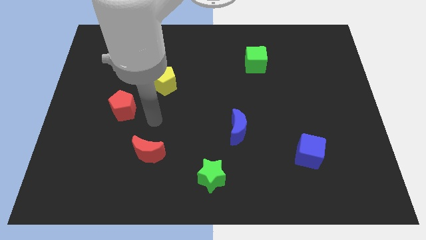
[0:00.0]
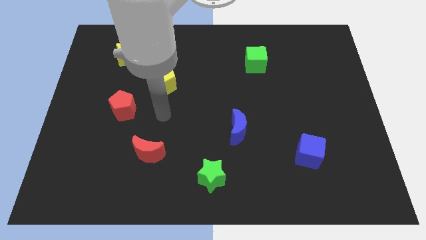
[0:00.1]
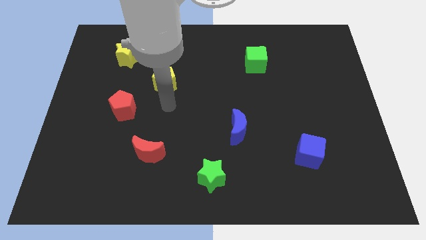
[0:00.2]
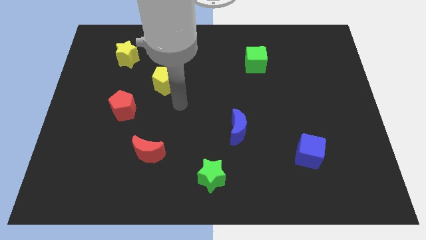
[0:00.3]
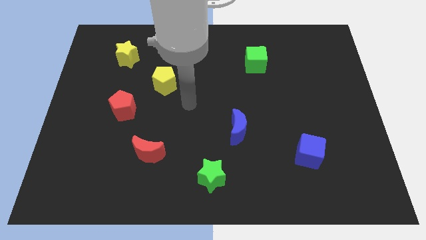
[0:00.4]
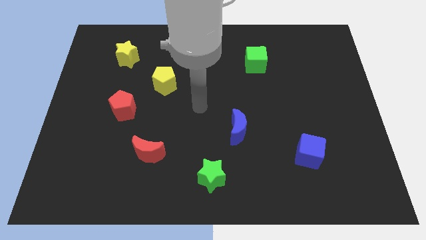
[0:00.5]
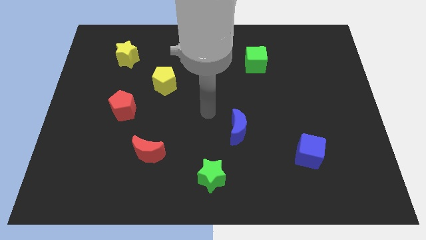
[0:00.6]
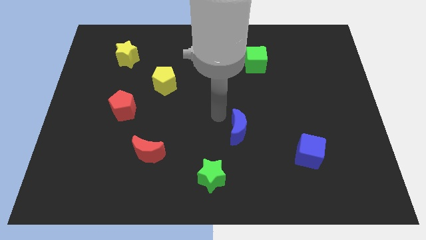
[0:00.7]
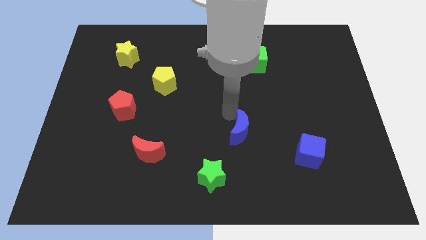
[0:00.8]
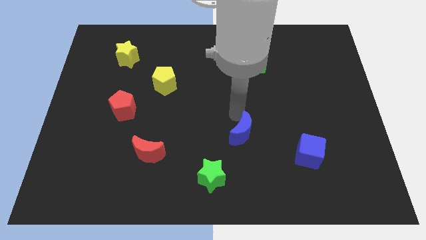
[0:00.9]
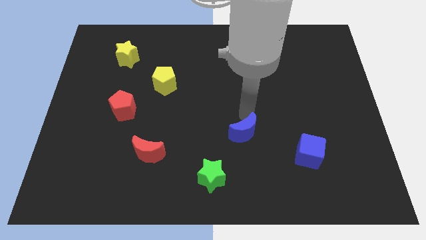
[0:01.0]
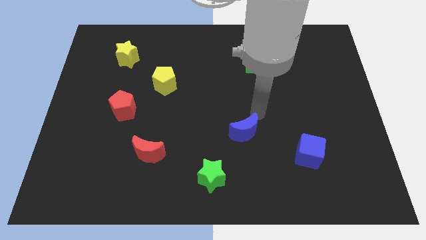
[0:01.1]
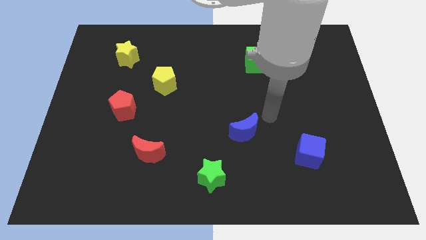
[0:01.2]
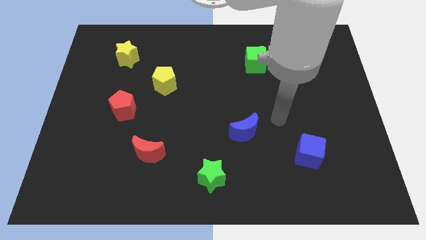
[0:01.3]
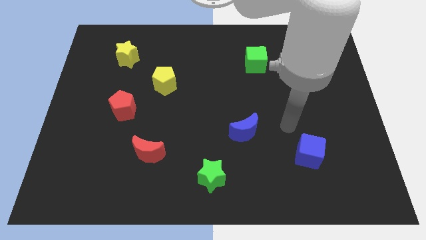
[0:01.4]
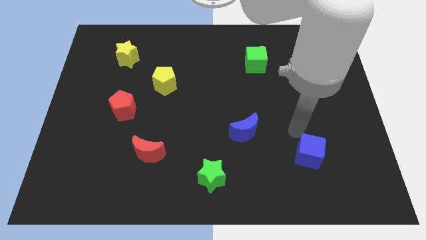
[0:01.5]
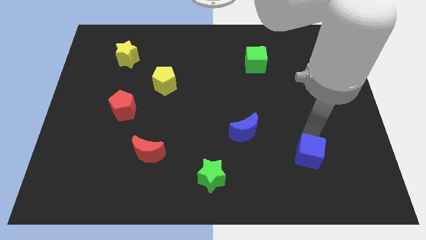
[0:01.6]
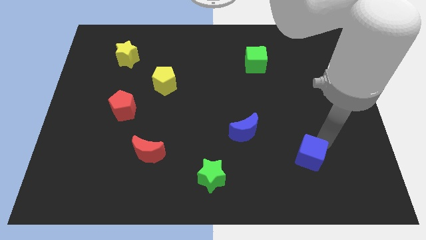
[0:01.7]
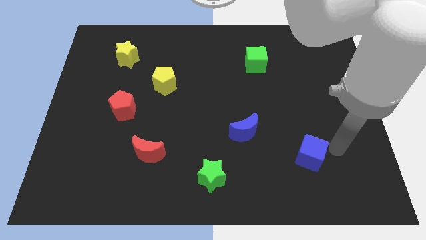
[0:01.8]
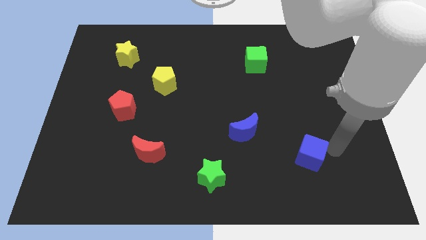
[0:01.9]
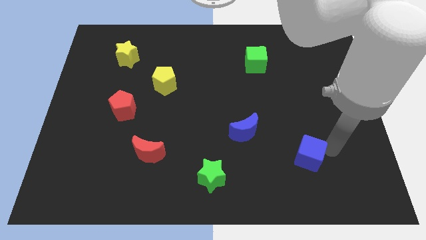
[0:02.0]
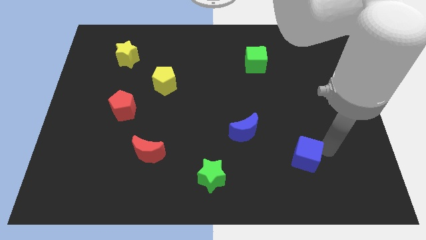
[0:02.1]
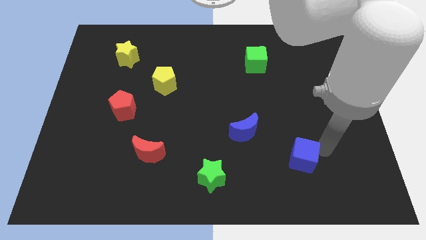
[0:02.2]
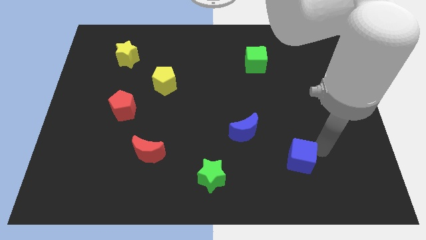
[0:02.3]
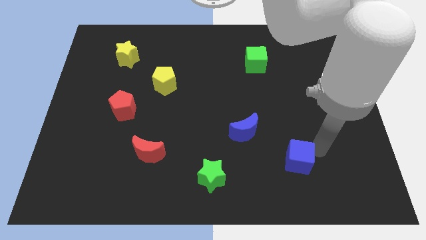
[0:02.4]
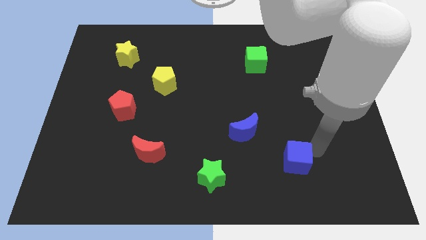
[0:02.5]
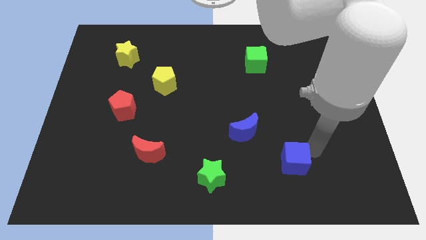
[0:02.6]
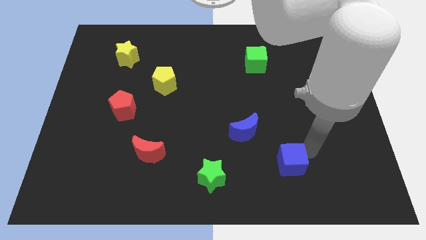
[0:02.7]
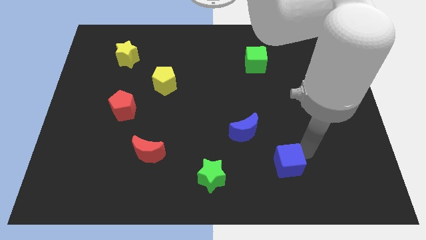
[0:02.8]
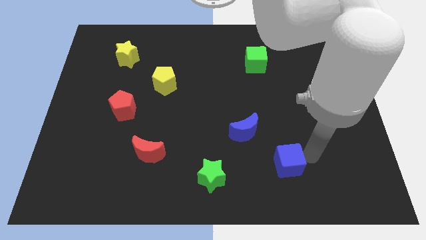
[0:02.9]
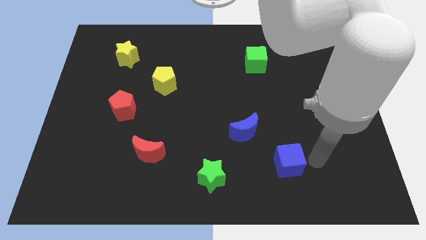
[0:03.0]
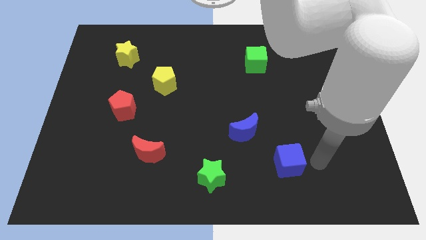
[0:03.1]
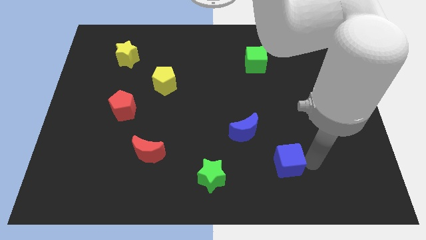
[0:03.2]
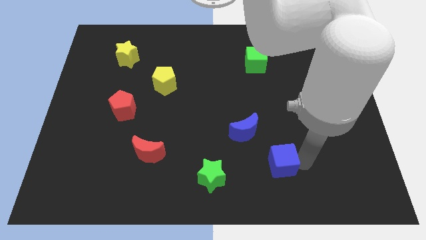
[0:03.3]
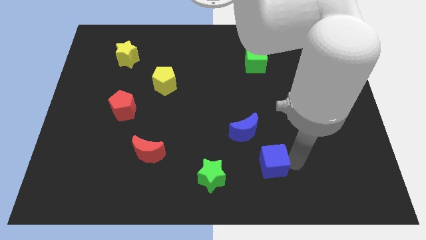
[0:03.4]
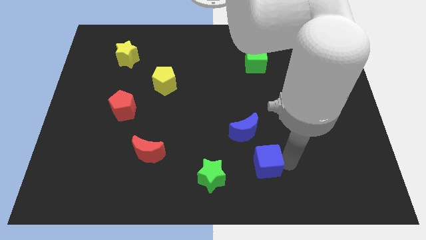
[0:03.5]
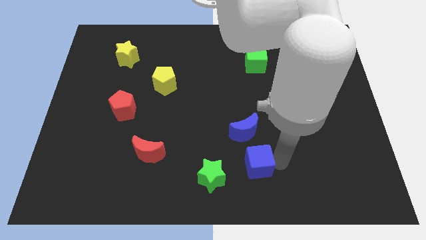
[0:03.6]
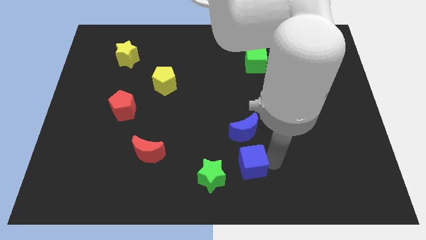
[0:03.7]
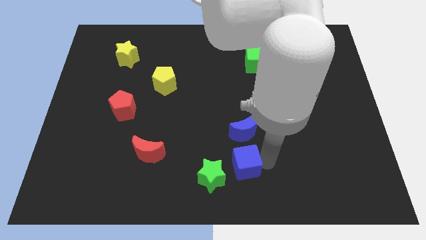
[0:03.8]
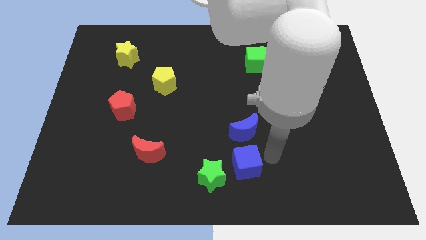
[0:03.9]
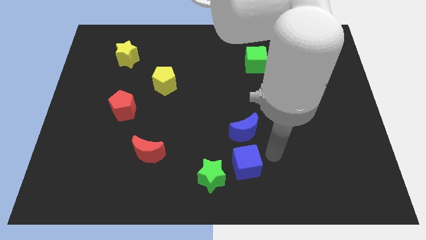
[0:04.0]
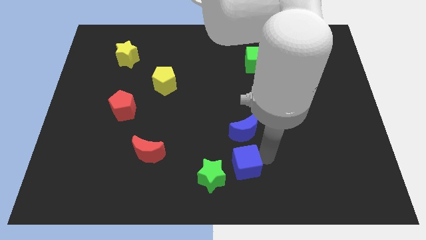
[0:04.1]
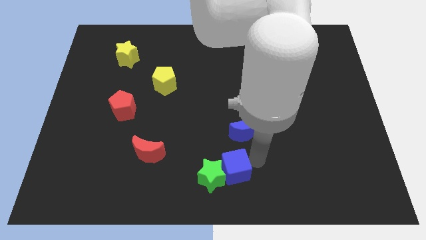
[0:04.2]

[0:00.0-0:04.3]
put the blue cube towards the green star

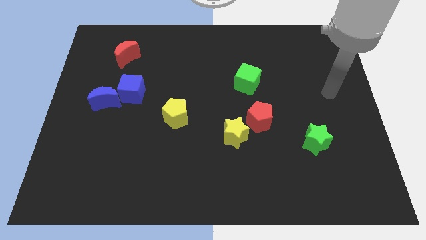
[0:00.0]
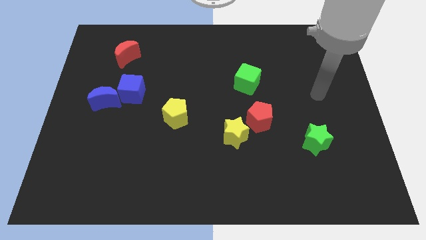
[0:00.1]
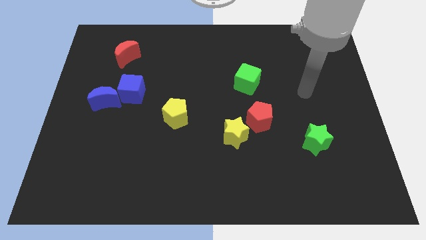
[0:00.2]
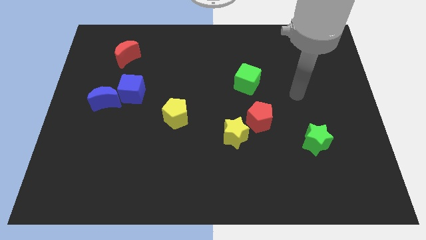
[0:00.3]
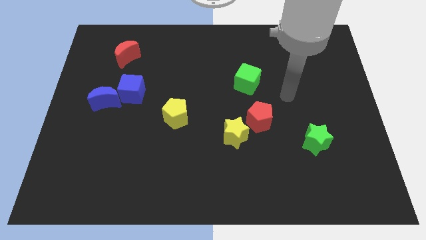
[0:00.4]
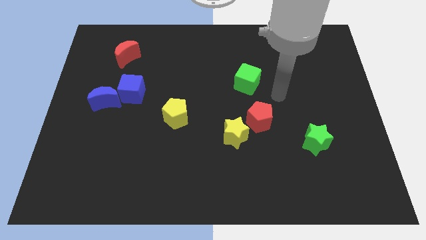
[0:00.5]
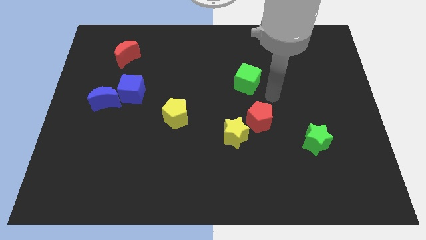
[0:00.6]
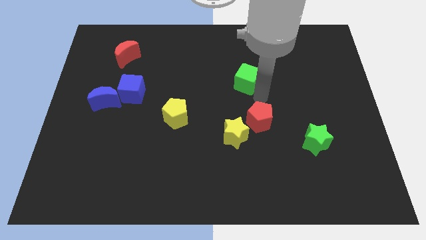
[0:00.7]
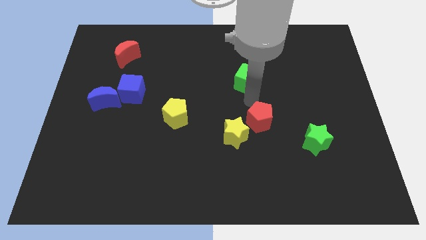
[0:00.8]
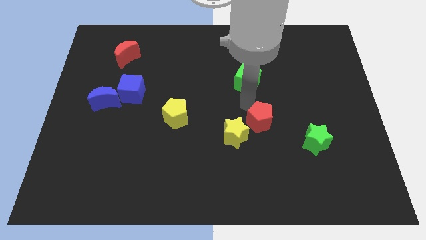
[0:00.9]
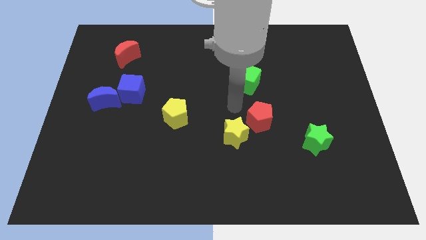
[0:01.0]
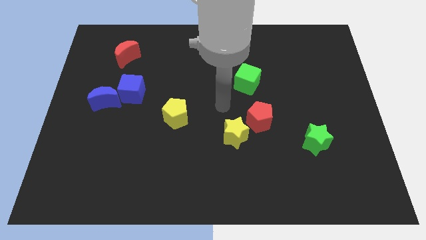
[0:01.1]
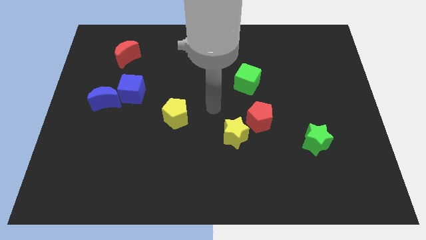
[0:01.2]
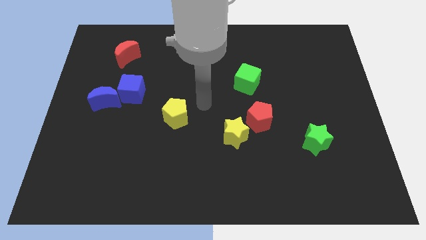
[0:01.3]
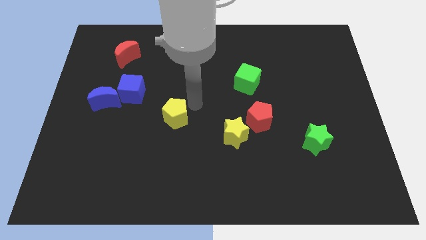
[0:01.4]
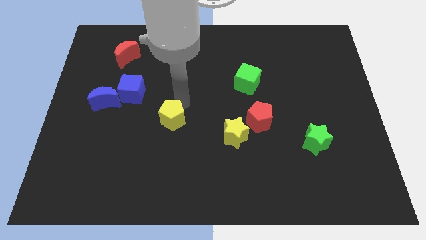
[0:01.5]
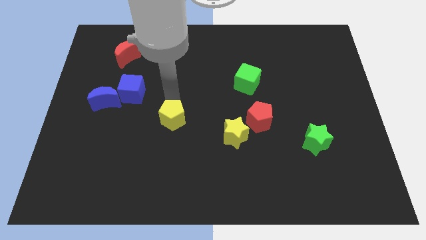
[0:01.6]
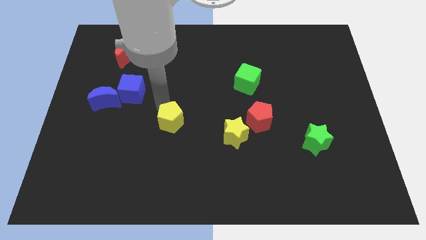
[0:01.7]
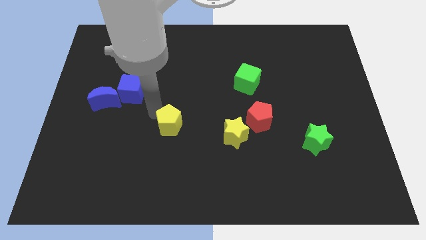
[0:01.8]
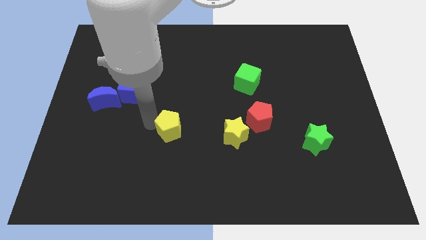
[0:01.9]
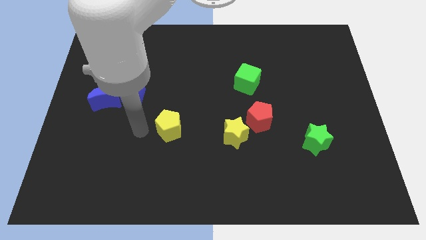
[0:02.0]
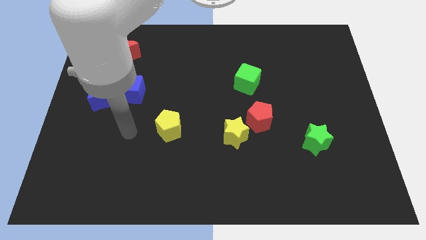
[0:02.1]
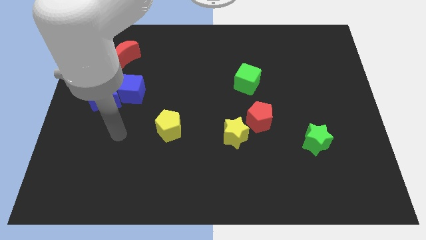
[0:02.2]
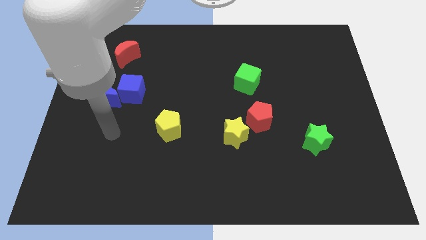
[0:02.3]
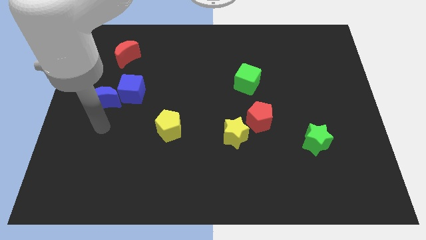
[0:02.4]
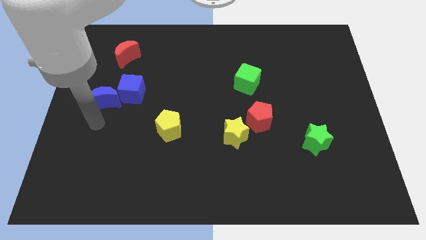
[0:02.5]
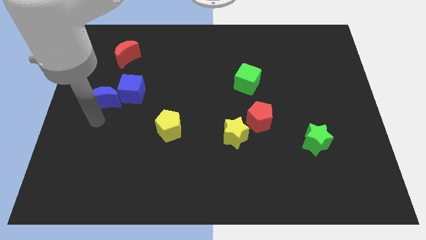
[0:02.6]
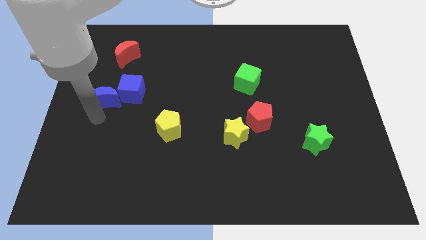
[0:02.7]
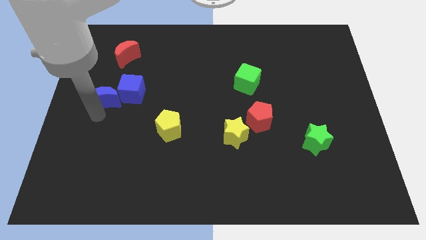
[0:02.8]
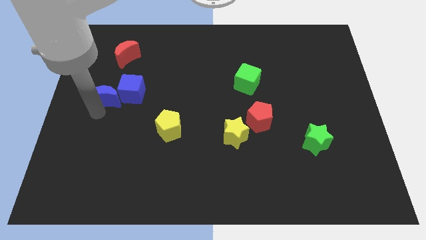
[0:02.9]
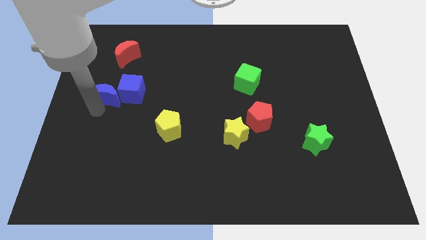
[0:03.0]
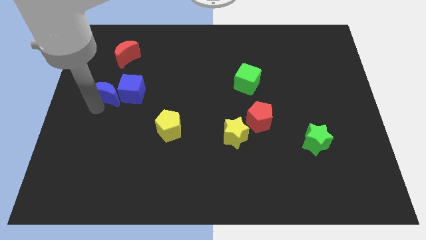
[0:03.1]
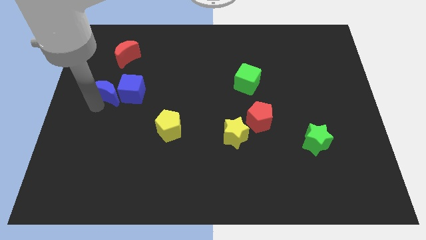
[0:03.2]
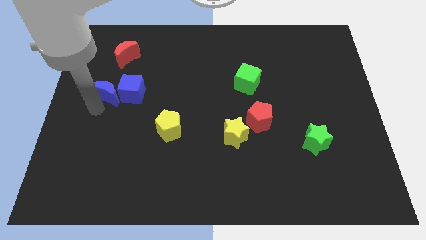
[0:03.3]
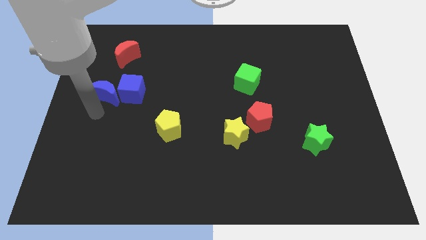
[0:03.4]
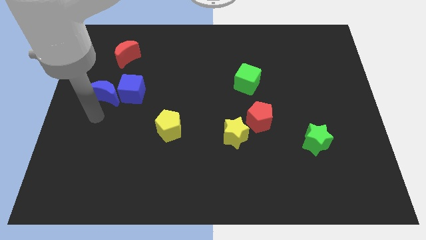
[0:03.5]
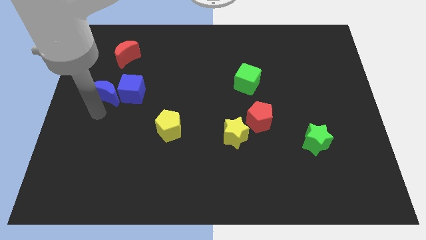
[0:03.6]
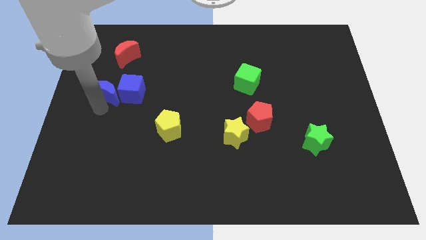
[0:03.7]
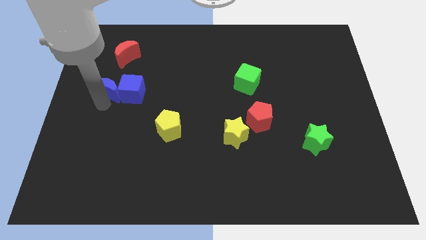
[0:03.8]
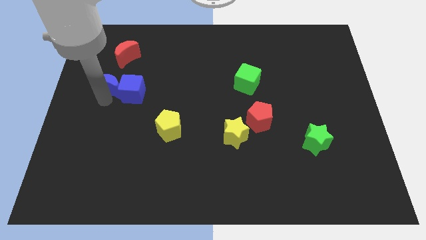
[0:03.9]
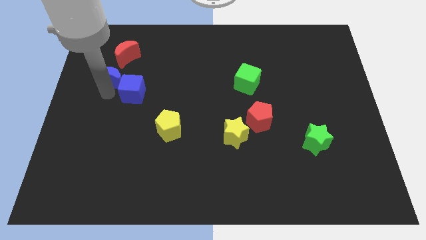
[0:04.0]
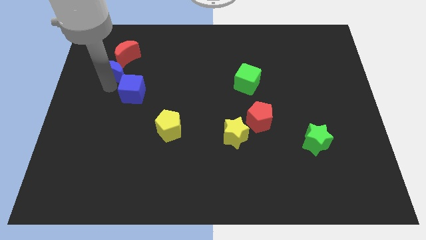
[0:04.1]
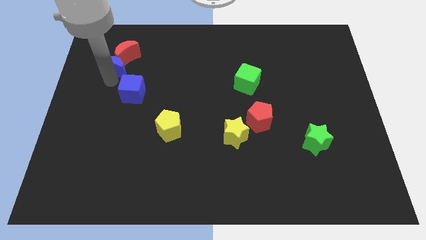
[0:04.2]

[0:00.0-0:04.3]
push the blue moon towards the red moon
